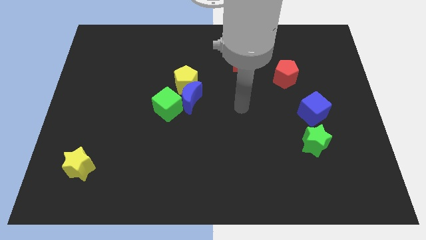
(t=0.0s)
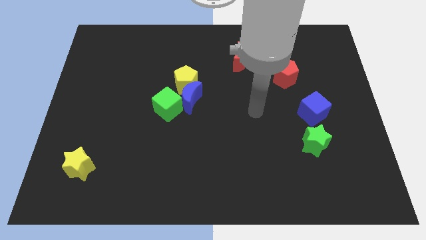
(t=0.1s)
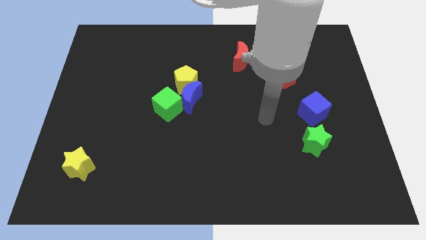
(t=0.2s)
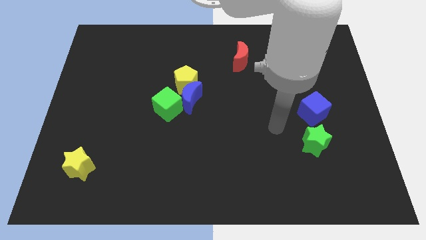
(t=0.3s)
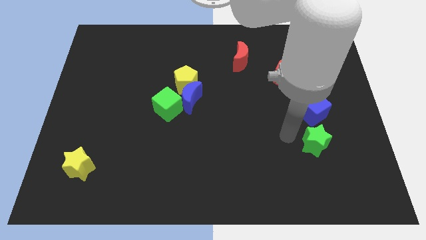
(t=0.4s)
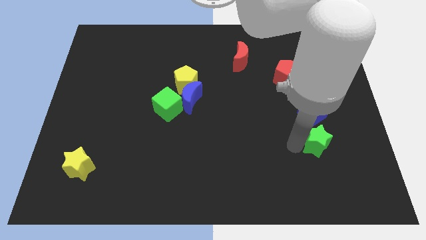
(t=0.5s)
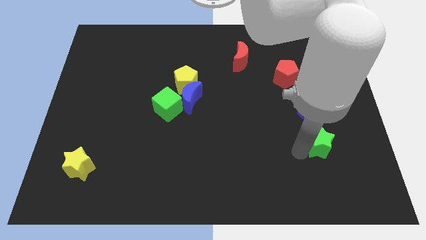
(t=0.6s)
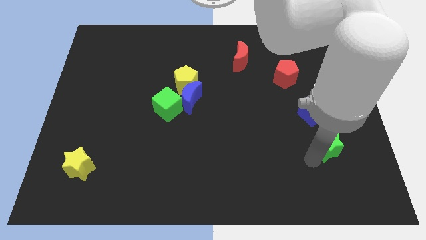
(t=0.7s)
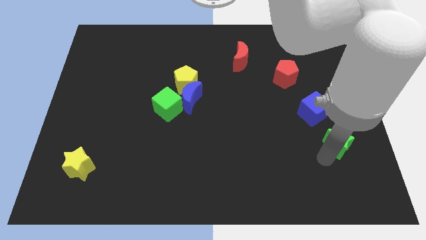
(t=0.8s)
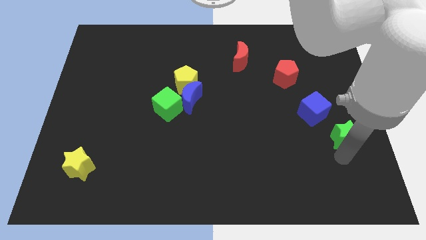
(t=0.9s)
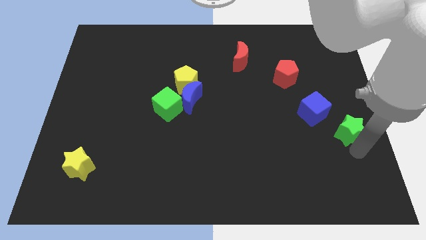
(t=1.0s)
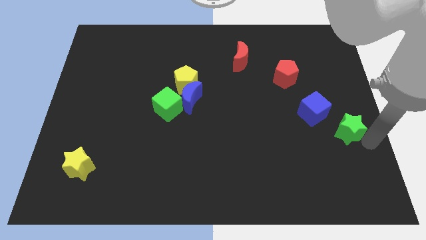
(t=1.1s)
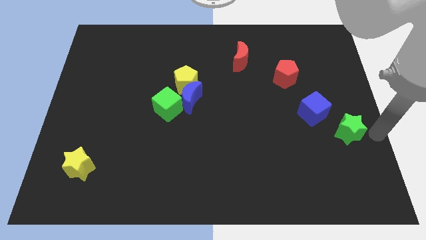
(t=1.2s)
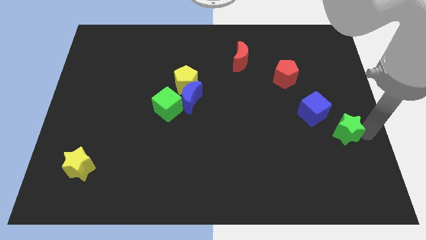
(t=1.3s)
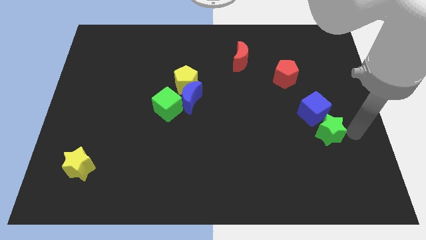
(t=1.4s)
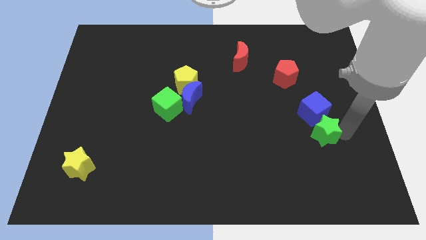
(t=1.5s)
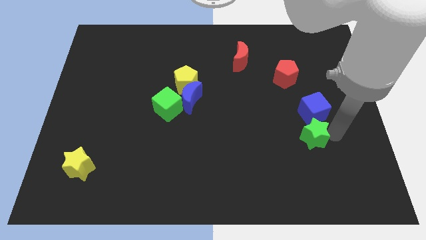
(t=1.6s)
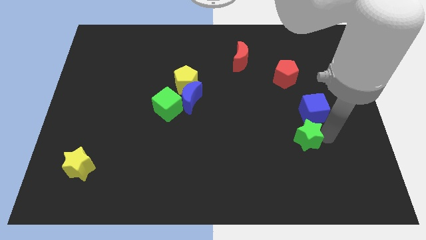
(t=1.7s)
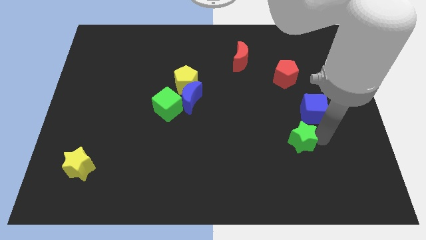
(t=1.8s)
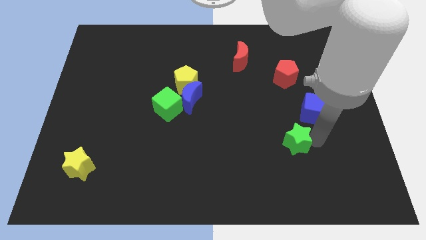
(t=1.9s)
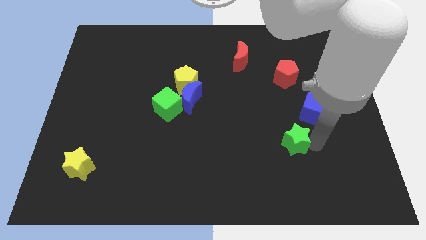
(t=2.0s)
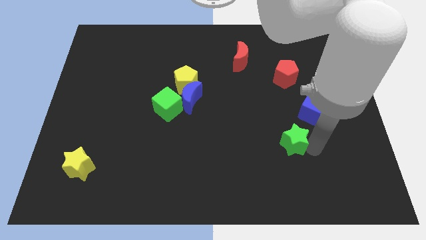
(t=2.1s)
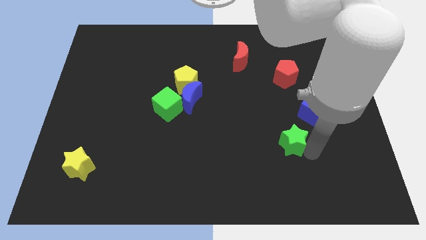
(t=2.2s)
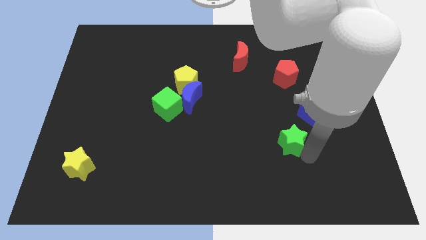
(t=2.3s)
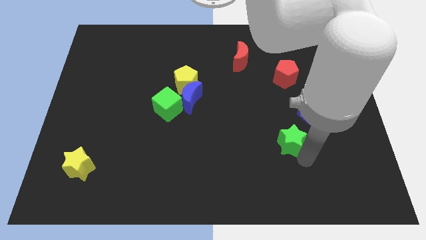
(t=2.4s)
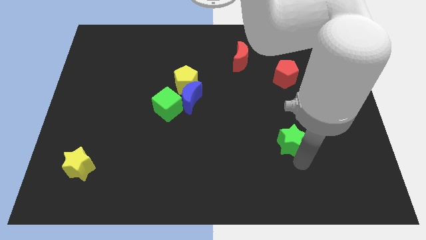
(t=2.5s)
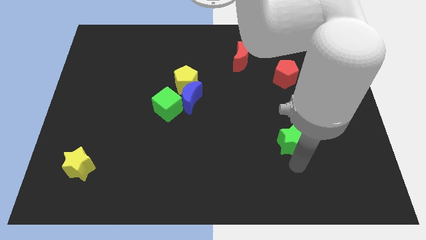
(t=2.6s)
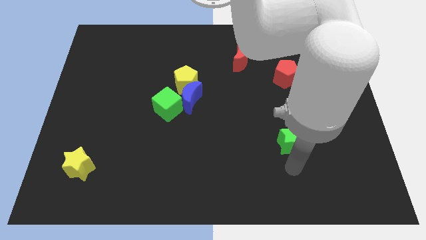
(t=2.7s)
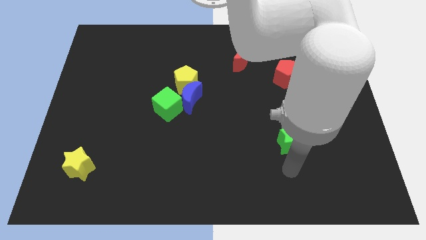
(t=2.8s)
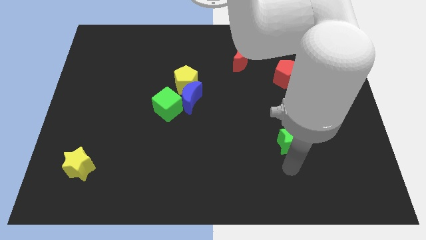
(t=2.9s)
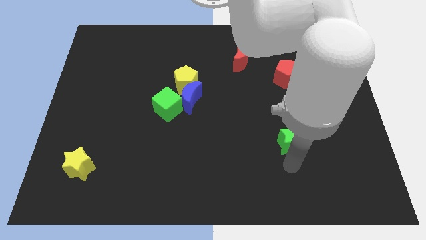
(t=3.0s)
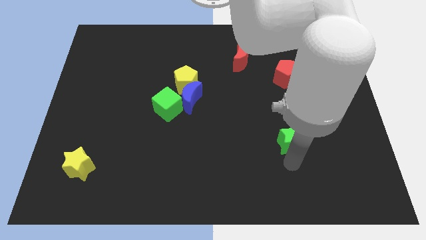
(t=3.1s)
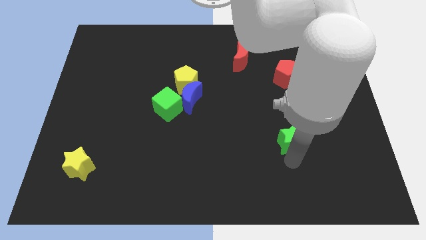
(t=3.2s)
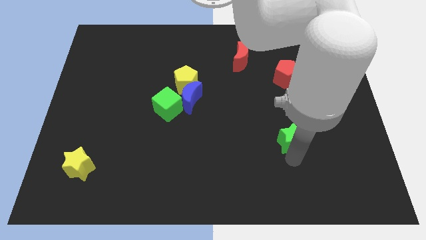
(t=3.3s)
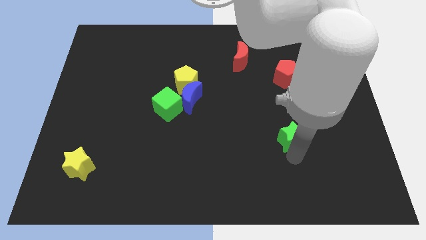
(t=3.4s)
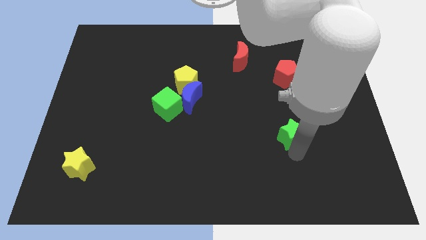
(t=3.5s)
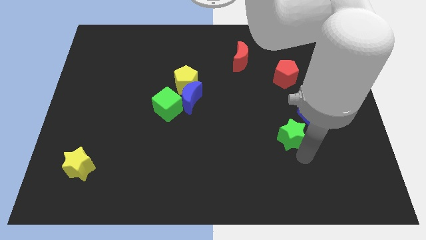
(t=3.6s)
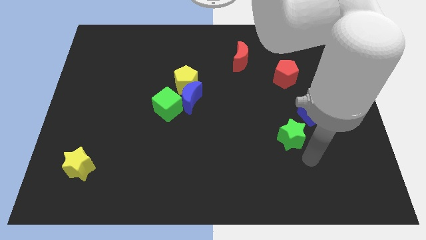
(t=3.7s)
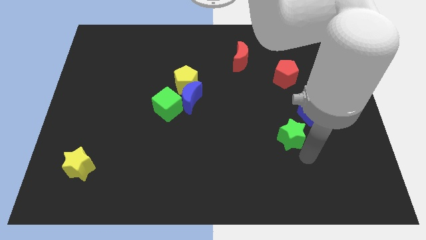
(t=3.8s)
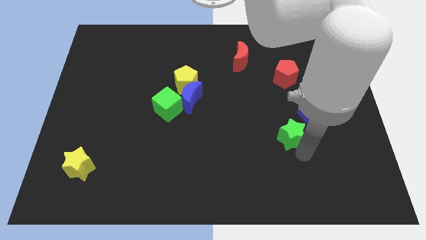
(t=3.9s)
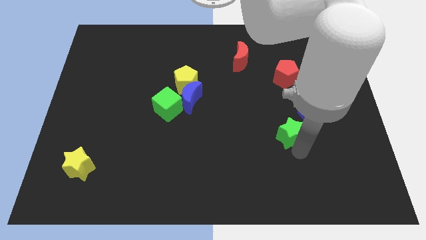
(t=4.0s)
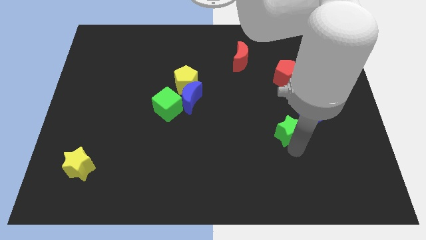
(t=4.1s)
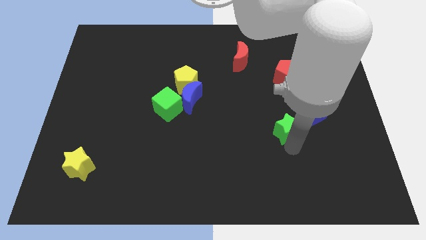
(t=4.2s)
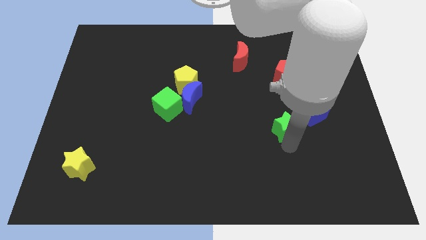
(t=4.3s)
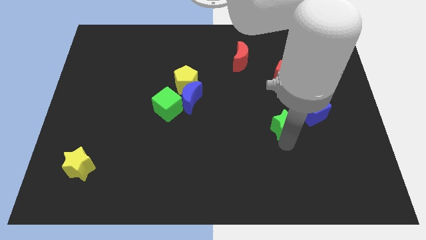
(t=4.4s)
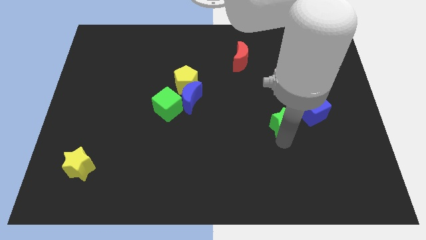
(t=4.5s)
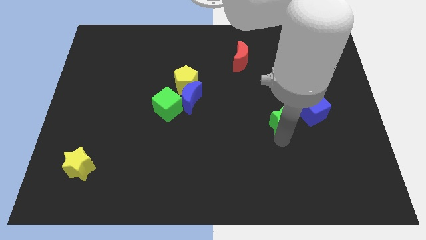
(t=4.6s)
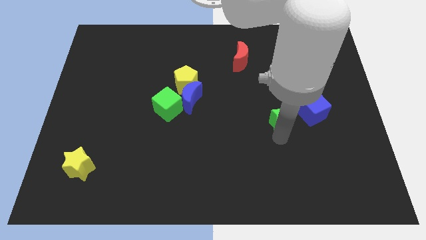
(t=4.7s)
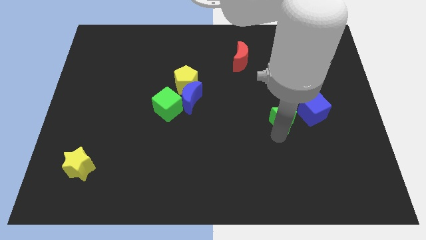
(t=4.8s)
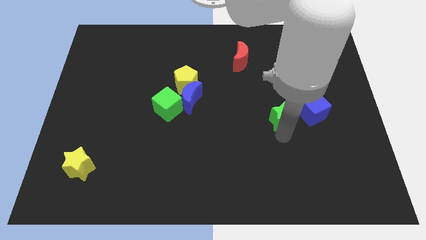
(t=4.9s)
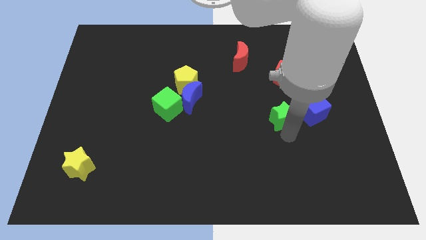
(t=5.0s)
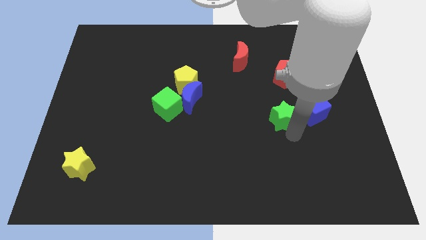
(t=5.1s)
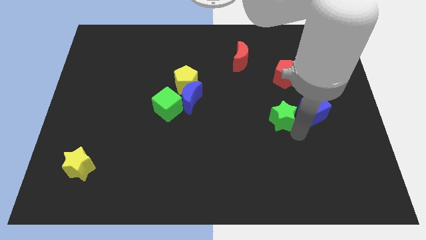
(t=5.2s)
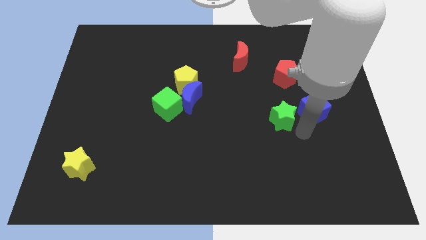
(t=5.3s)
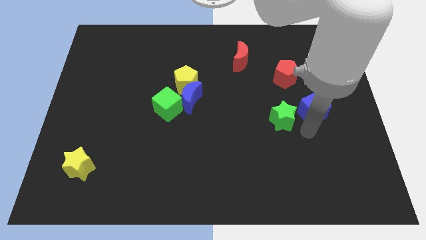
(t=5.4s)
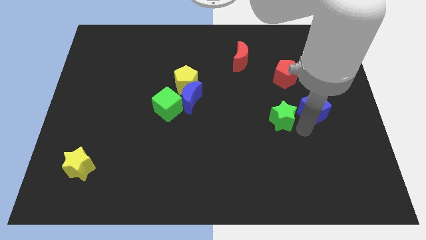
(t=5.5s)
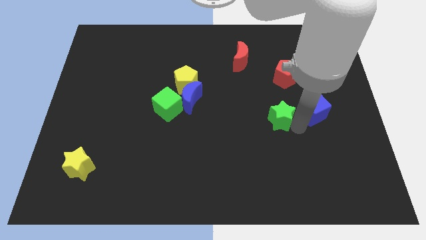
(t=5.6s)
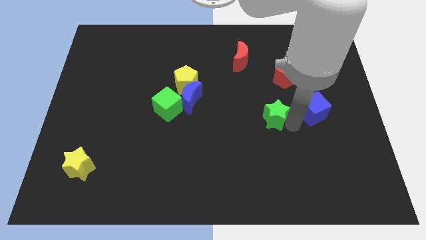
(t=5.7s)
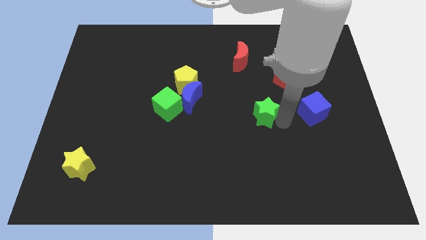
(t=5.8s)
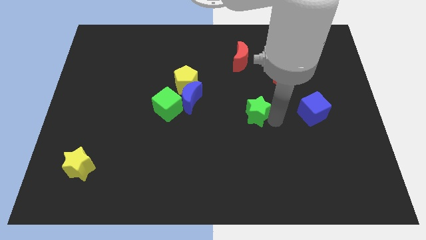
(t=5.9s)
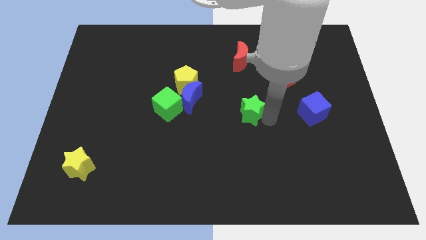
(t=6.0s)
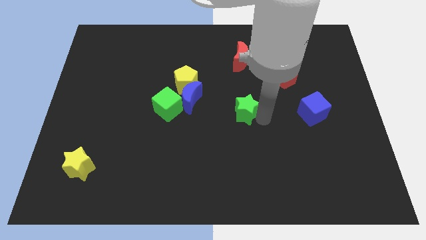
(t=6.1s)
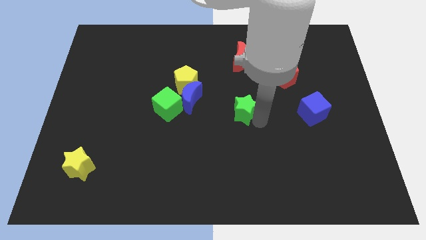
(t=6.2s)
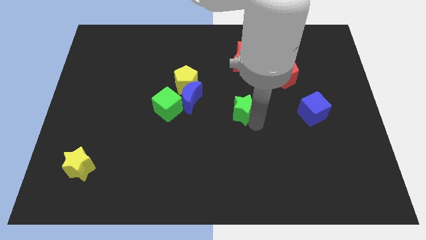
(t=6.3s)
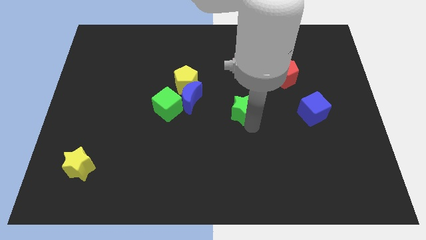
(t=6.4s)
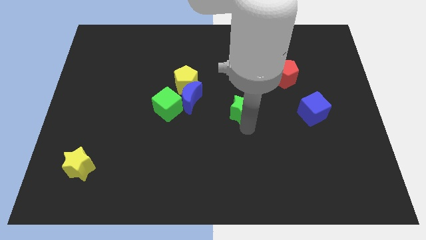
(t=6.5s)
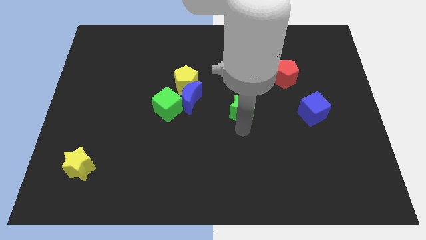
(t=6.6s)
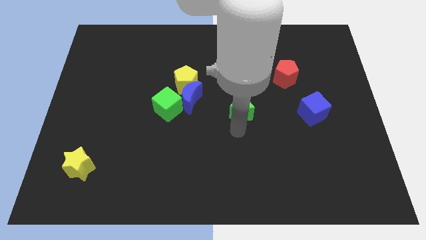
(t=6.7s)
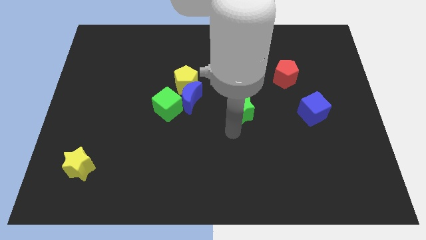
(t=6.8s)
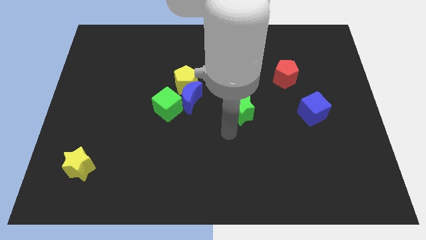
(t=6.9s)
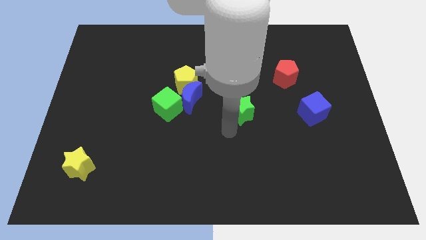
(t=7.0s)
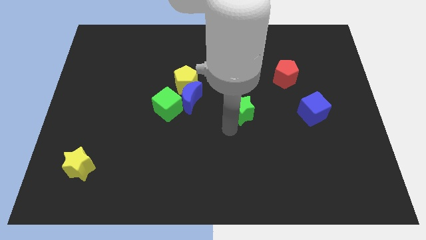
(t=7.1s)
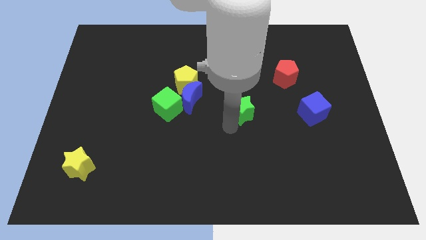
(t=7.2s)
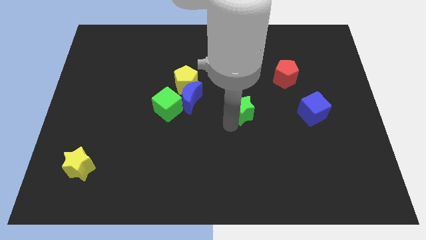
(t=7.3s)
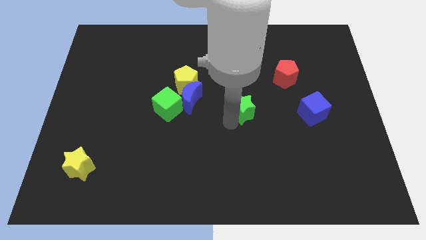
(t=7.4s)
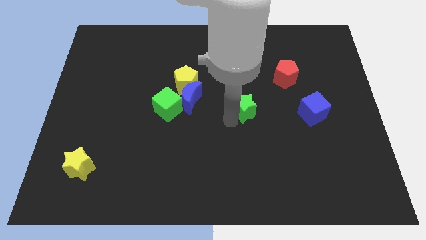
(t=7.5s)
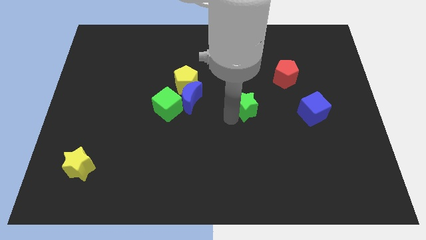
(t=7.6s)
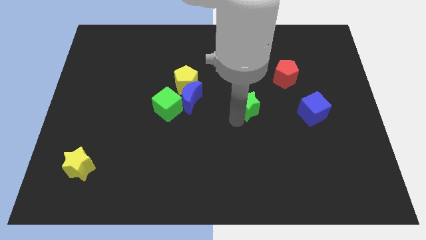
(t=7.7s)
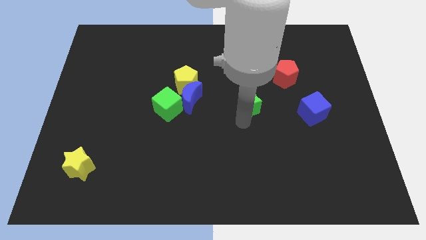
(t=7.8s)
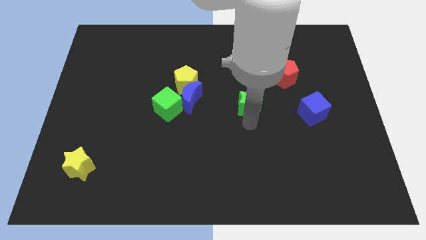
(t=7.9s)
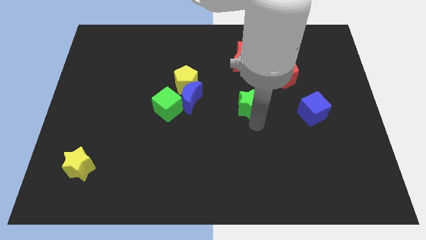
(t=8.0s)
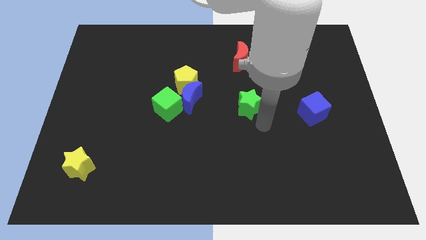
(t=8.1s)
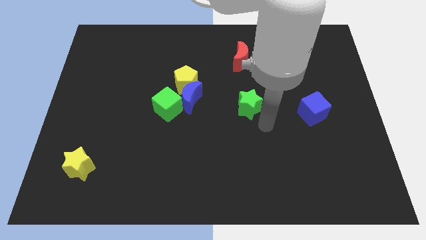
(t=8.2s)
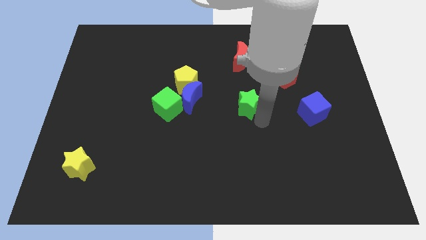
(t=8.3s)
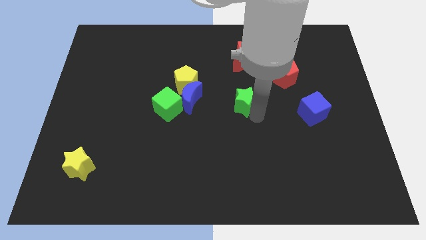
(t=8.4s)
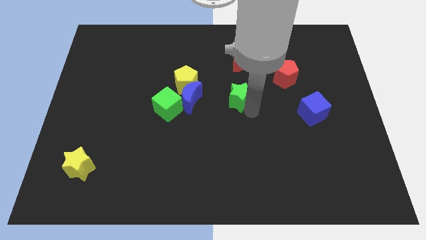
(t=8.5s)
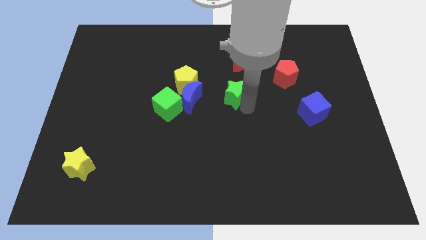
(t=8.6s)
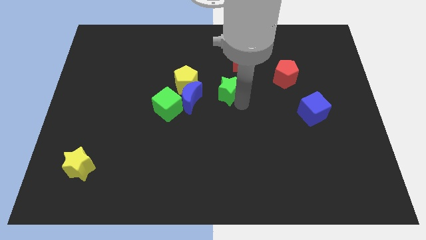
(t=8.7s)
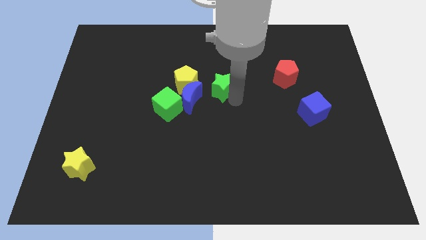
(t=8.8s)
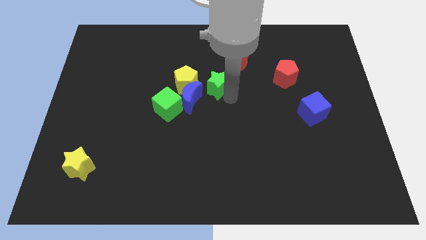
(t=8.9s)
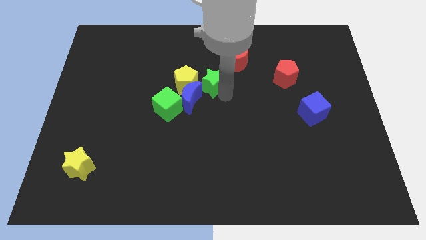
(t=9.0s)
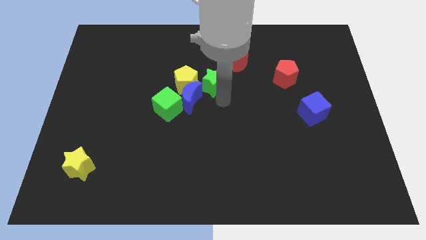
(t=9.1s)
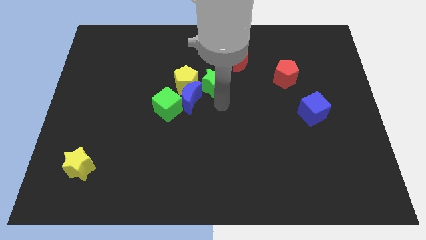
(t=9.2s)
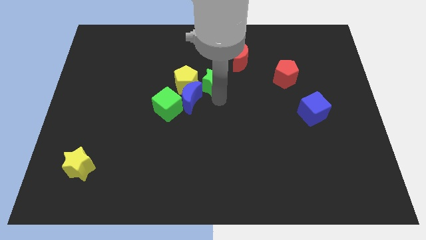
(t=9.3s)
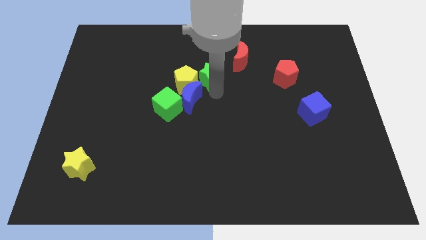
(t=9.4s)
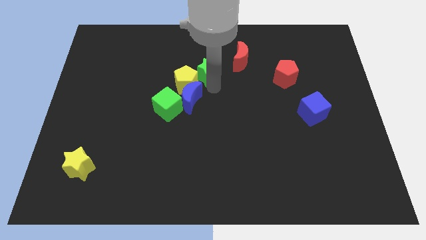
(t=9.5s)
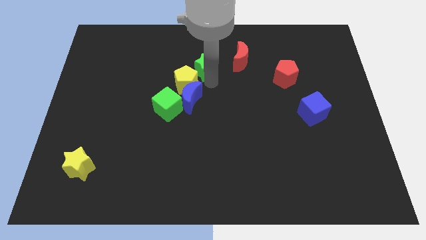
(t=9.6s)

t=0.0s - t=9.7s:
slide the green star just left of the red moon
